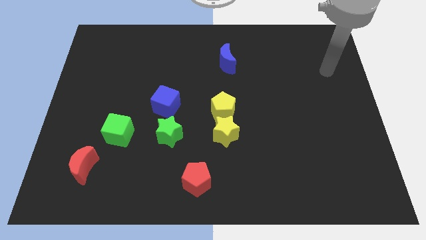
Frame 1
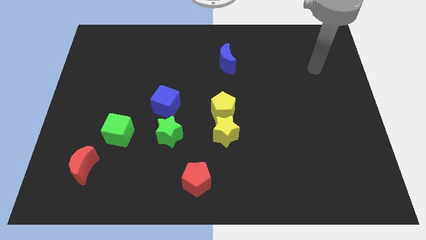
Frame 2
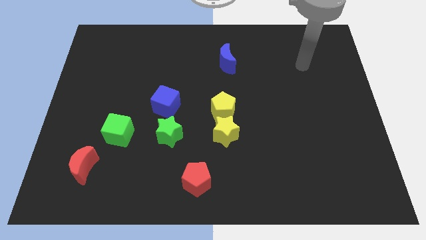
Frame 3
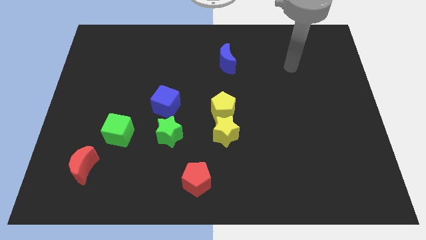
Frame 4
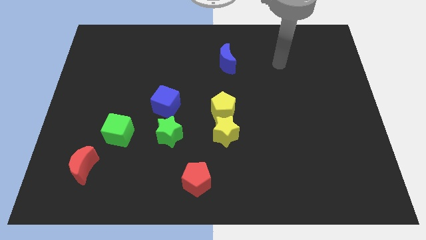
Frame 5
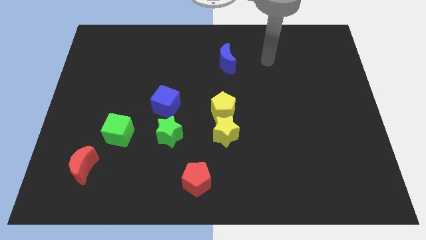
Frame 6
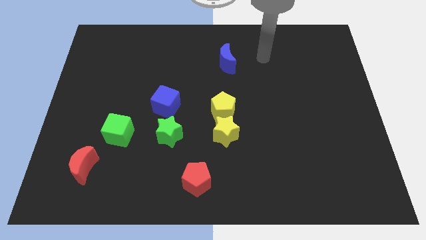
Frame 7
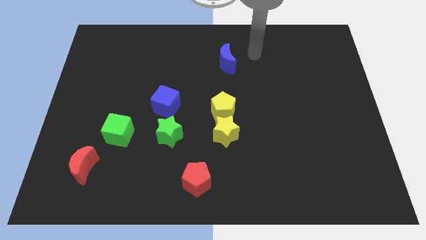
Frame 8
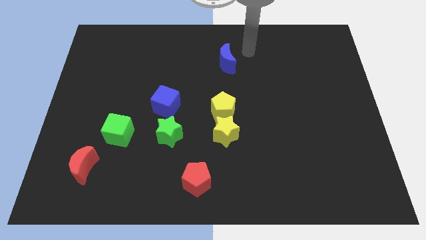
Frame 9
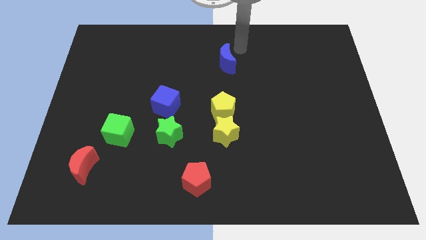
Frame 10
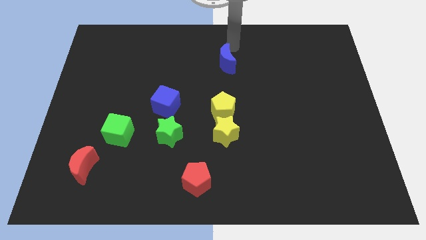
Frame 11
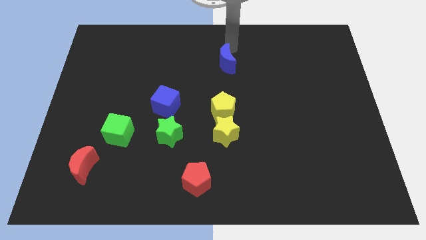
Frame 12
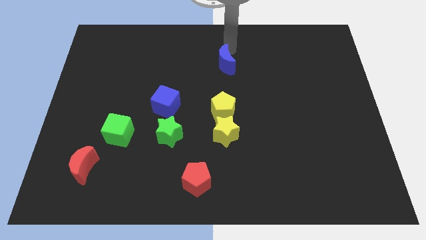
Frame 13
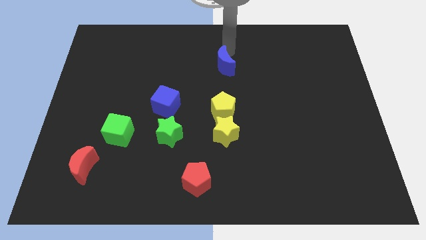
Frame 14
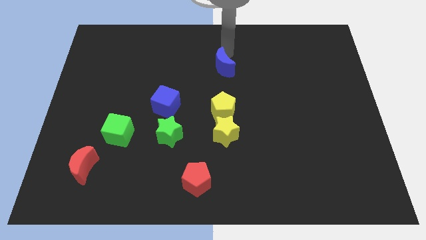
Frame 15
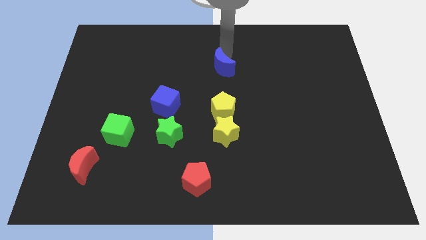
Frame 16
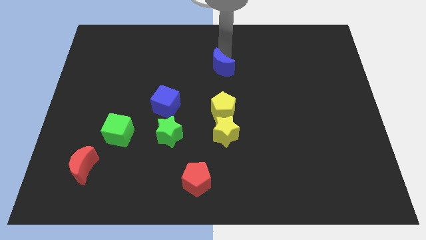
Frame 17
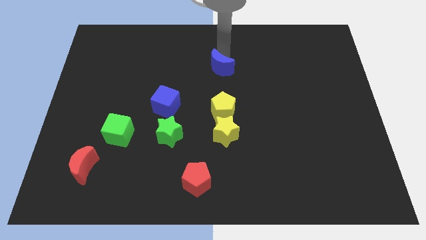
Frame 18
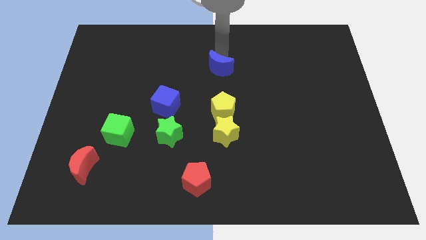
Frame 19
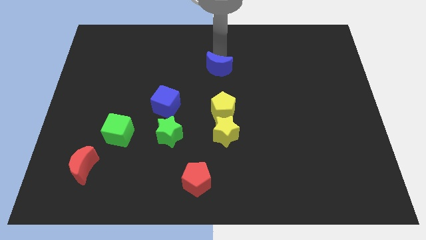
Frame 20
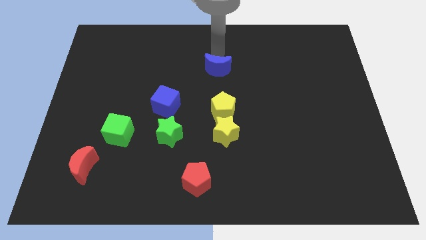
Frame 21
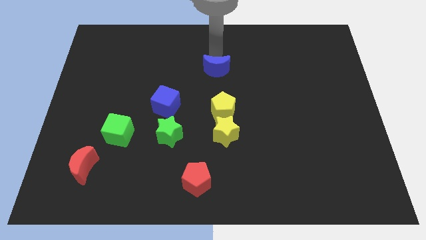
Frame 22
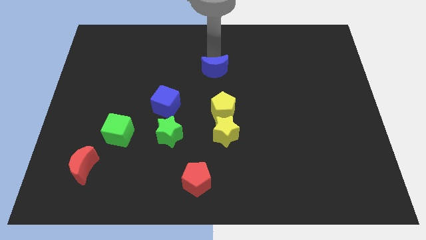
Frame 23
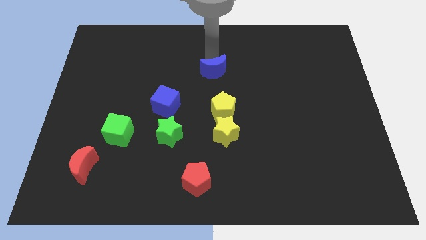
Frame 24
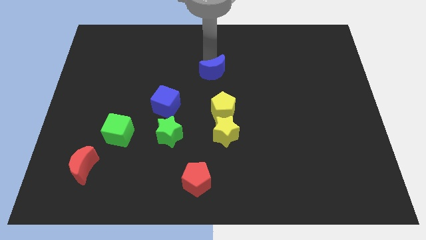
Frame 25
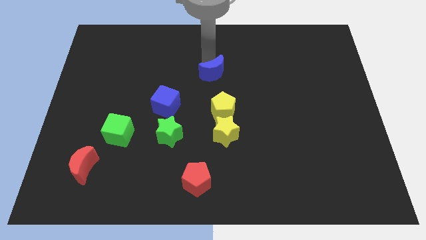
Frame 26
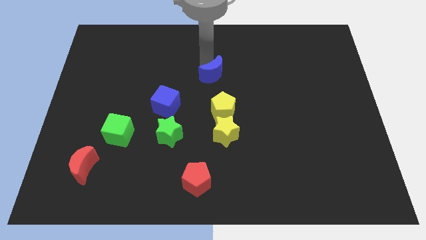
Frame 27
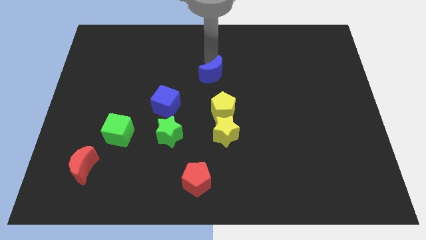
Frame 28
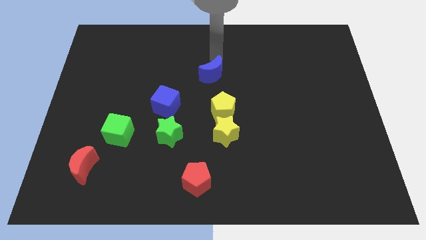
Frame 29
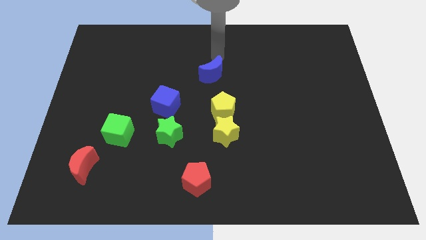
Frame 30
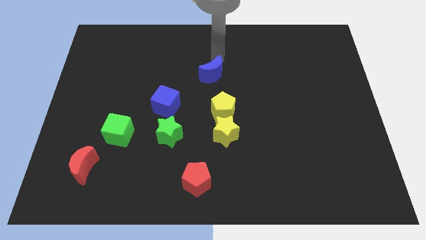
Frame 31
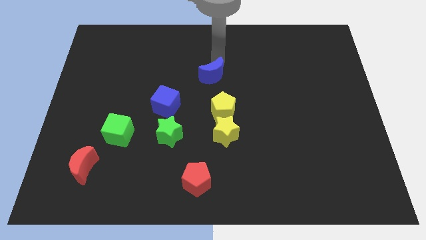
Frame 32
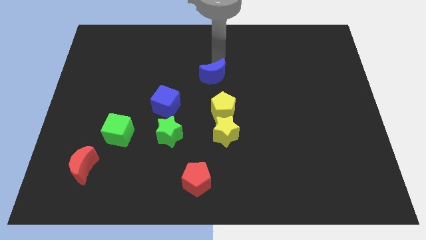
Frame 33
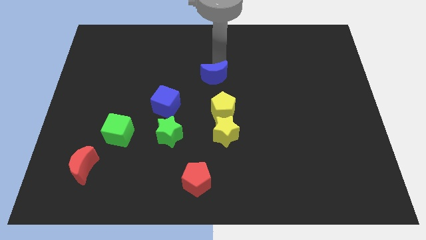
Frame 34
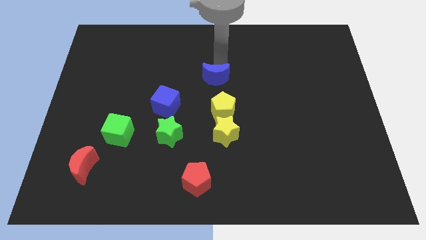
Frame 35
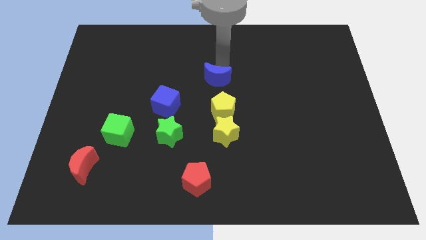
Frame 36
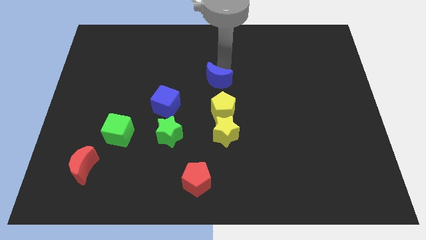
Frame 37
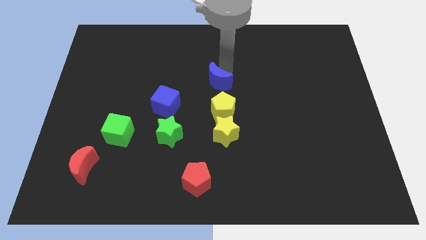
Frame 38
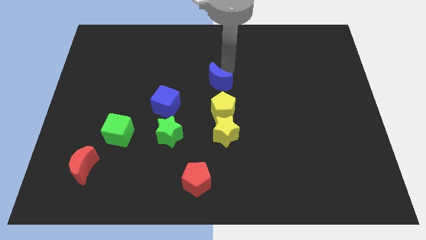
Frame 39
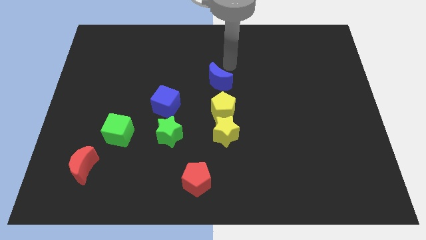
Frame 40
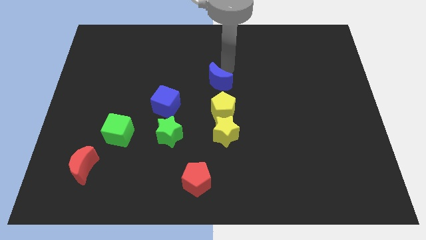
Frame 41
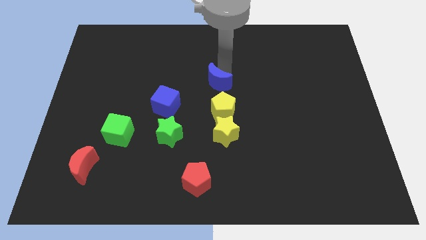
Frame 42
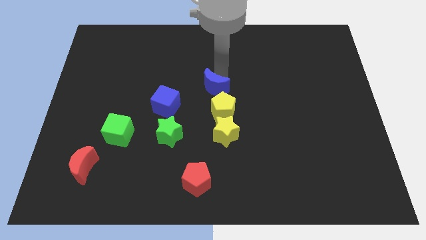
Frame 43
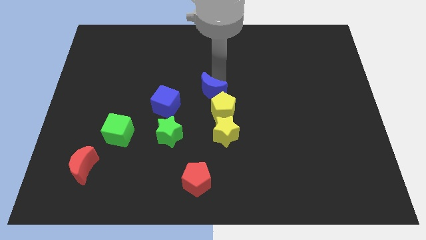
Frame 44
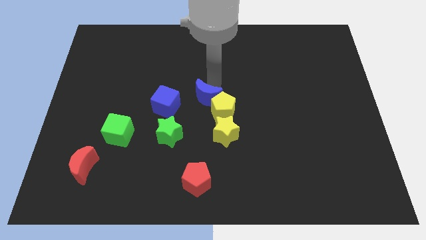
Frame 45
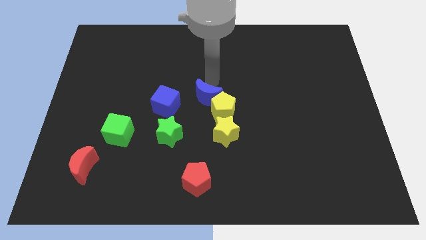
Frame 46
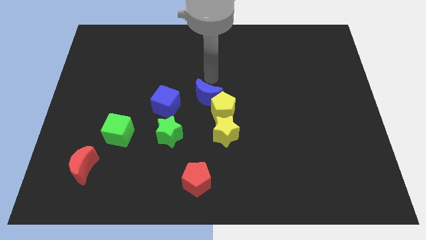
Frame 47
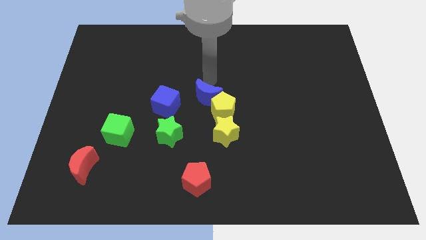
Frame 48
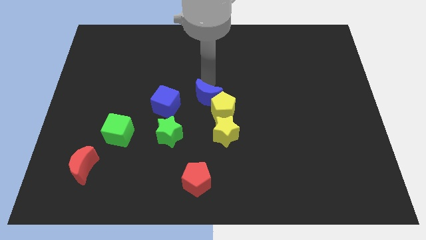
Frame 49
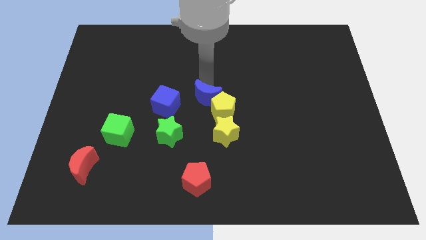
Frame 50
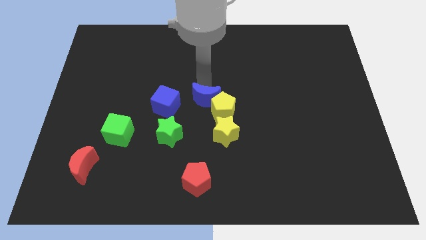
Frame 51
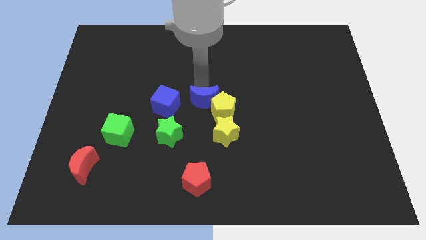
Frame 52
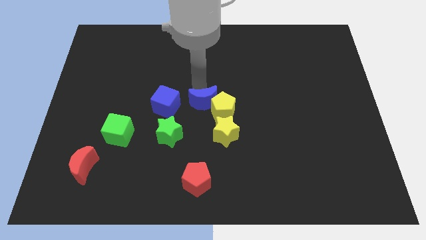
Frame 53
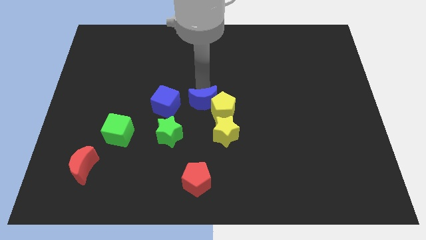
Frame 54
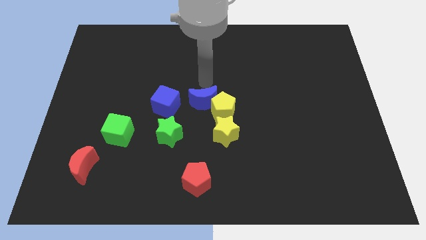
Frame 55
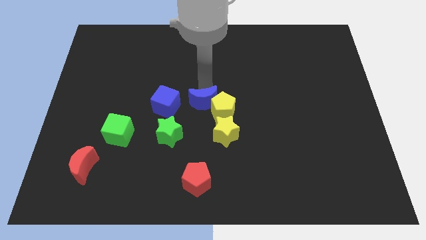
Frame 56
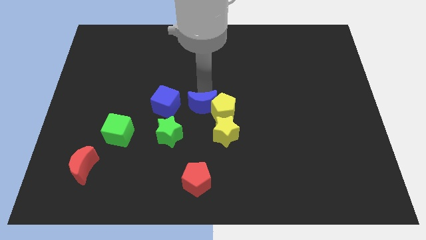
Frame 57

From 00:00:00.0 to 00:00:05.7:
push the blue moon to the bottom left side of the yellow pentagon

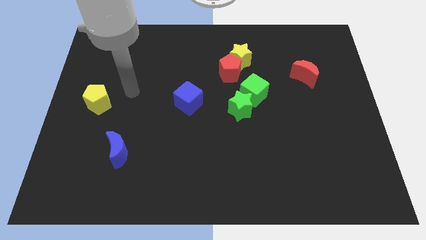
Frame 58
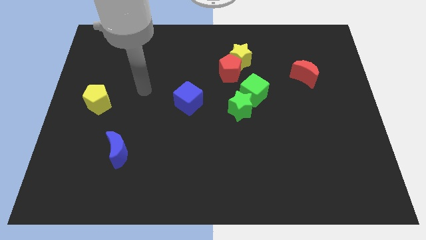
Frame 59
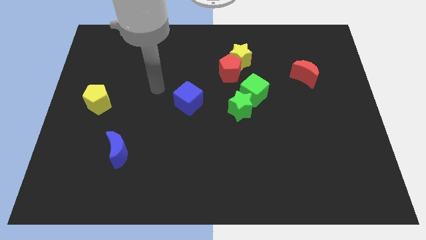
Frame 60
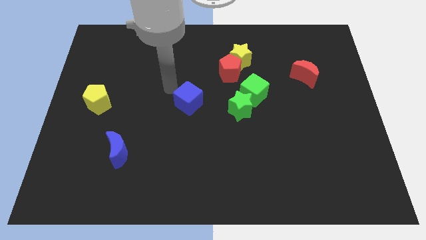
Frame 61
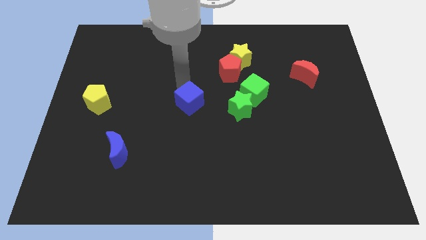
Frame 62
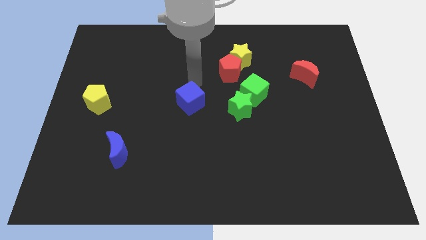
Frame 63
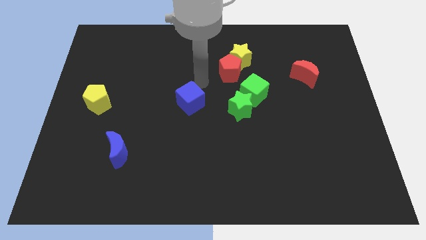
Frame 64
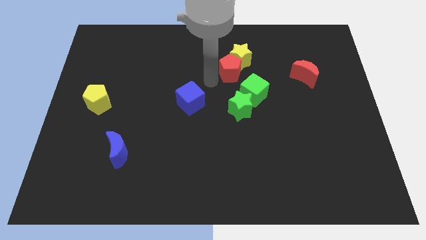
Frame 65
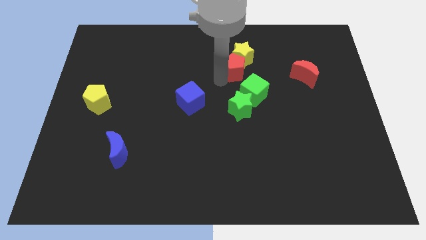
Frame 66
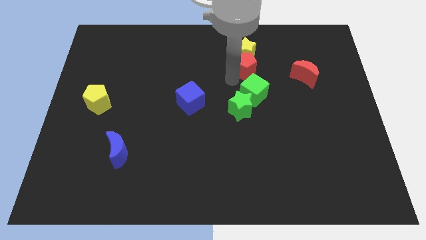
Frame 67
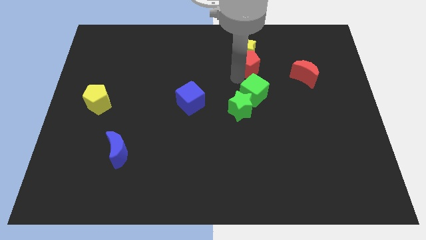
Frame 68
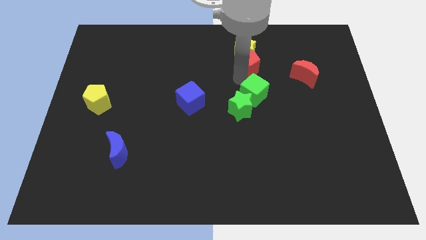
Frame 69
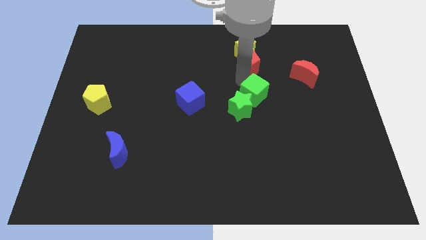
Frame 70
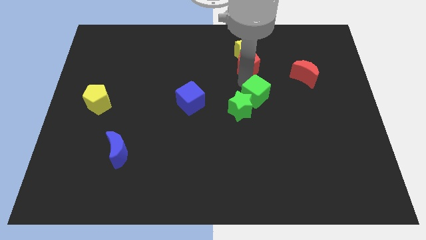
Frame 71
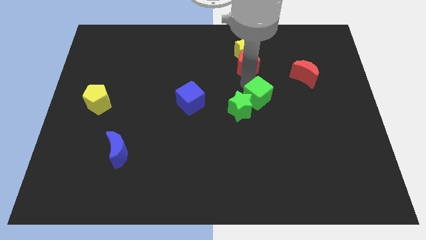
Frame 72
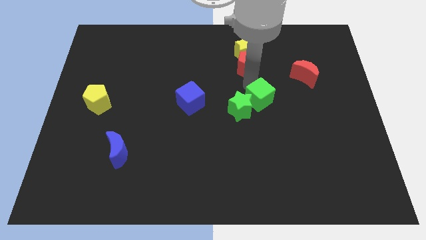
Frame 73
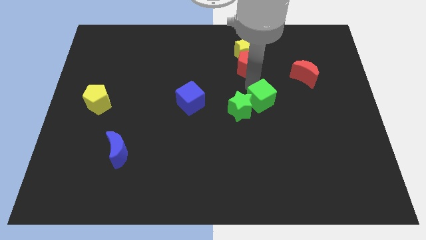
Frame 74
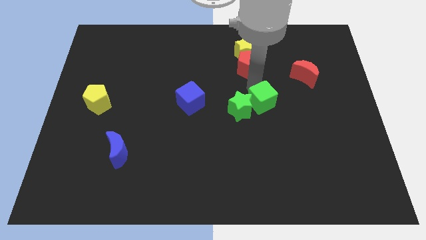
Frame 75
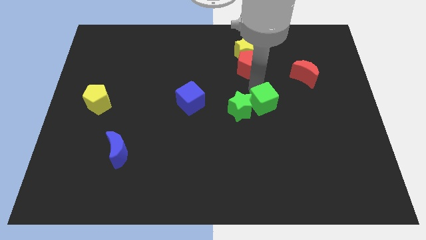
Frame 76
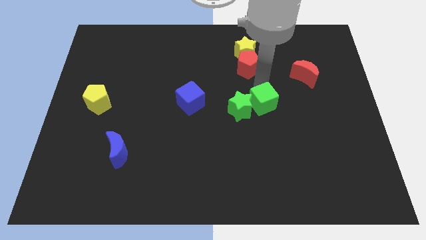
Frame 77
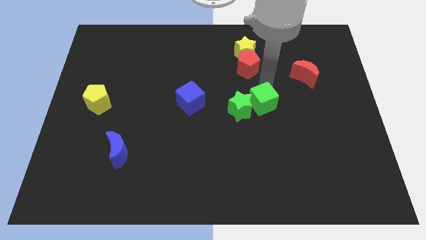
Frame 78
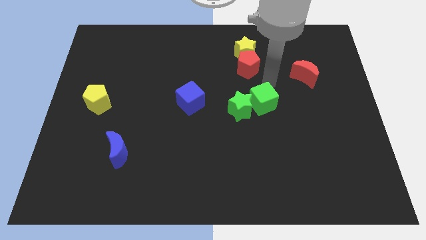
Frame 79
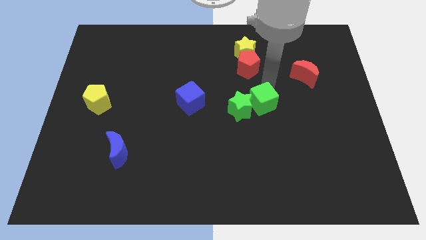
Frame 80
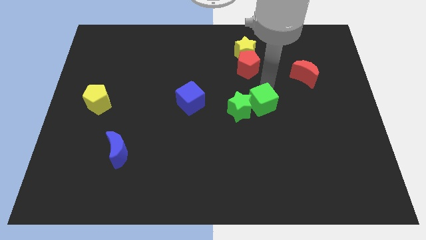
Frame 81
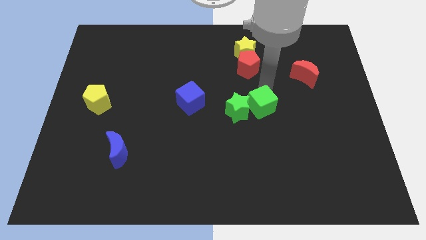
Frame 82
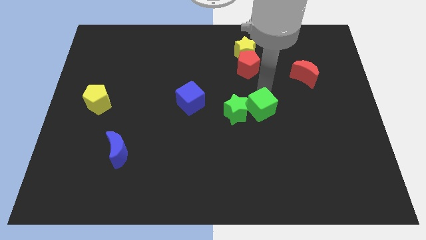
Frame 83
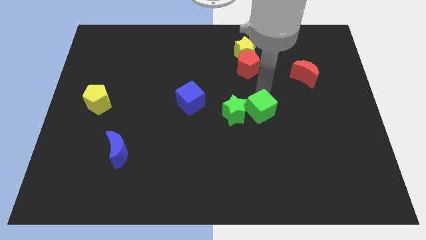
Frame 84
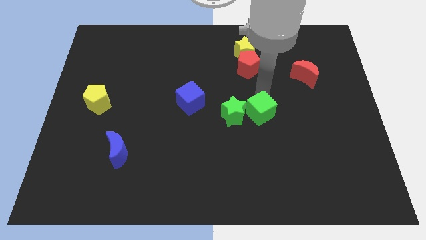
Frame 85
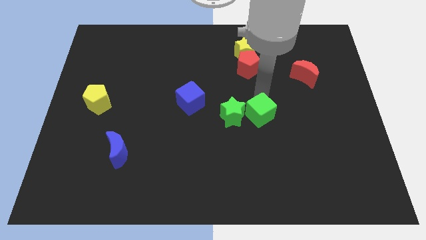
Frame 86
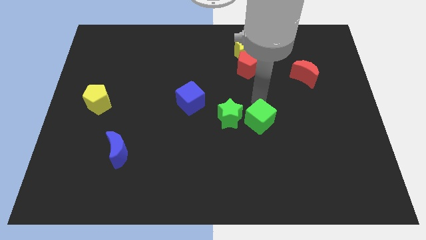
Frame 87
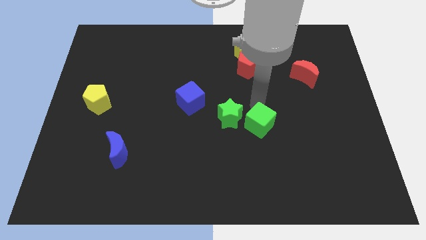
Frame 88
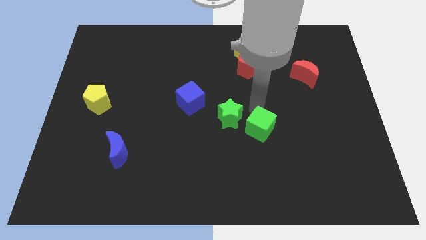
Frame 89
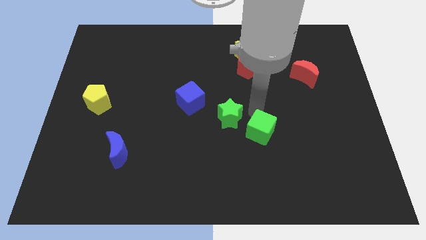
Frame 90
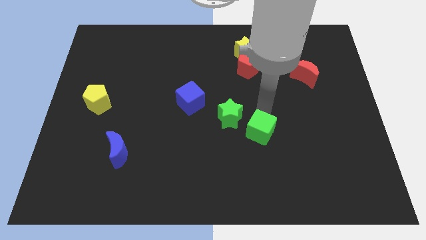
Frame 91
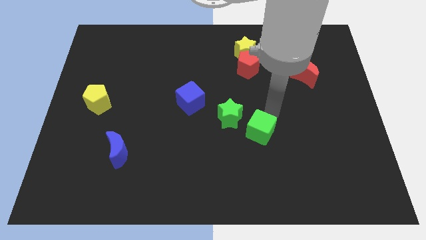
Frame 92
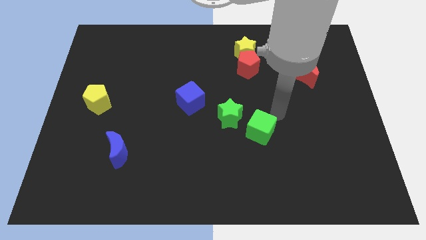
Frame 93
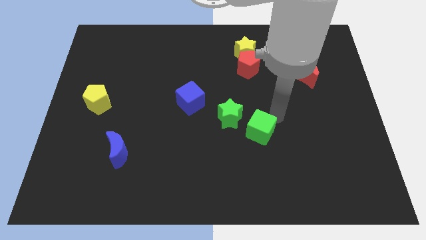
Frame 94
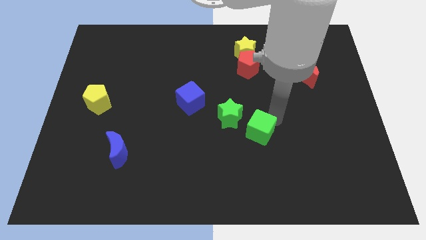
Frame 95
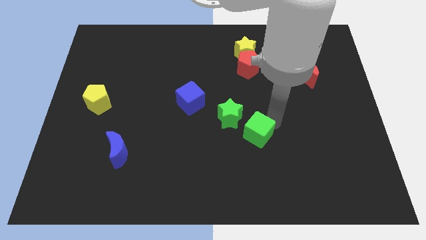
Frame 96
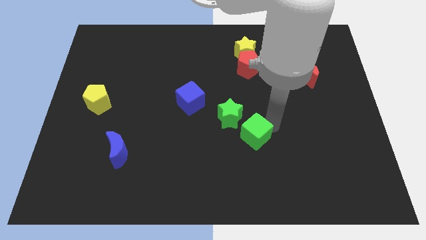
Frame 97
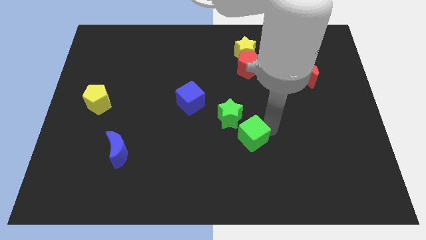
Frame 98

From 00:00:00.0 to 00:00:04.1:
move the green cube below the green star
